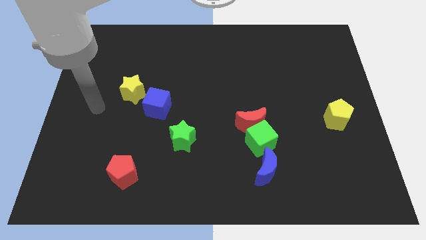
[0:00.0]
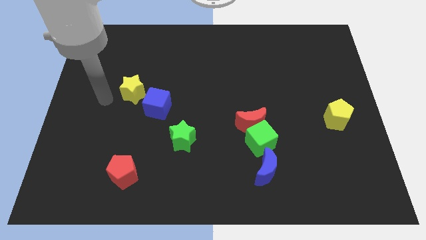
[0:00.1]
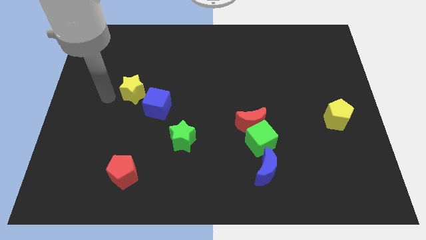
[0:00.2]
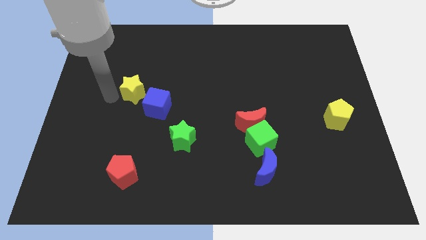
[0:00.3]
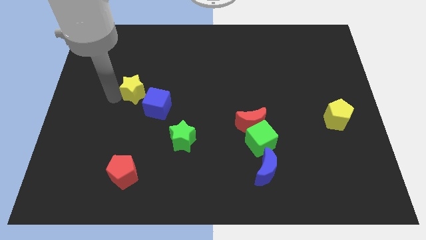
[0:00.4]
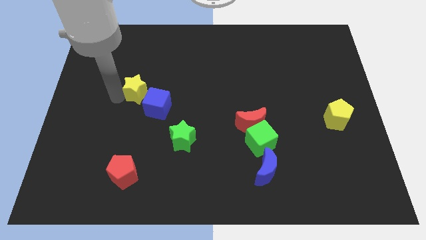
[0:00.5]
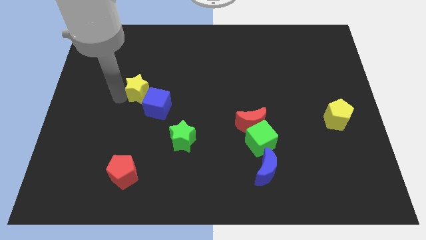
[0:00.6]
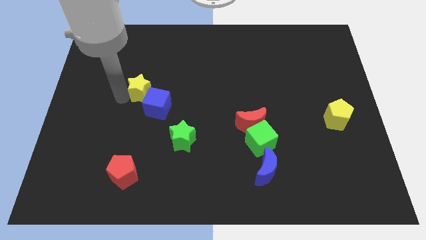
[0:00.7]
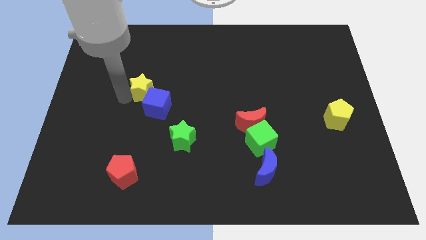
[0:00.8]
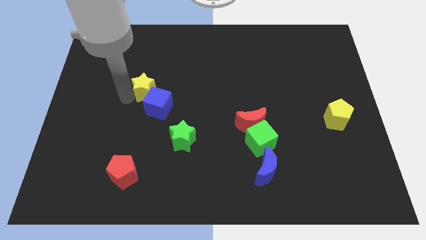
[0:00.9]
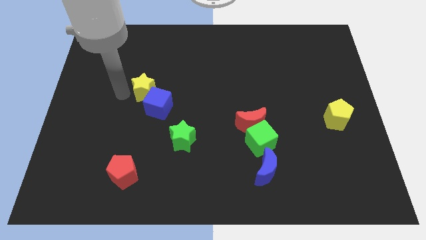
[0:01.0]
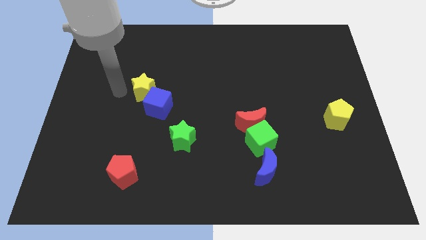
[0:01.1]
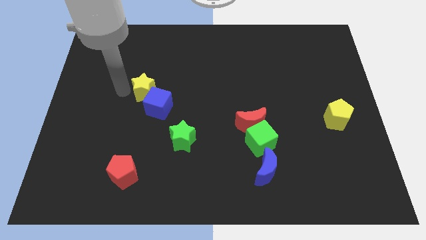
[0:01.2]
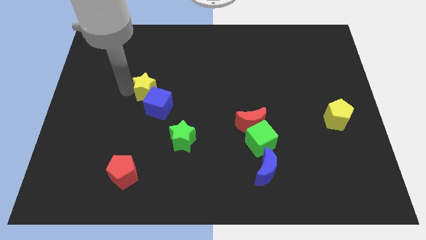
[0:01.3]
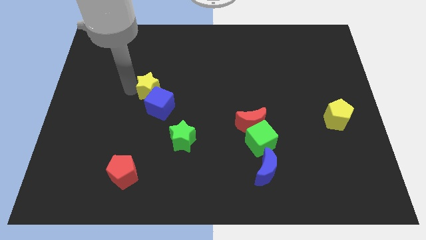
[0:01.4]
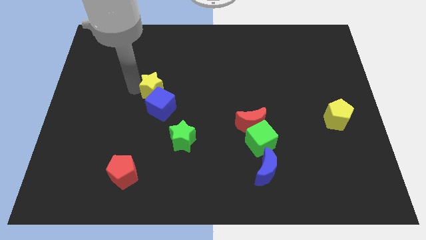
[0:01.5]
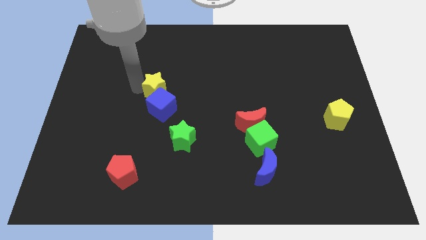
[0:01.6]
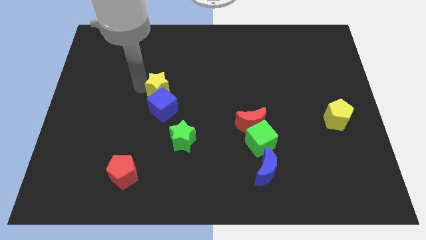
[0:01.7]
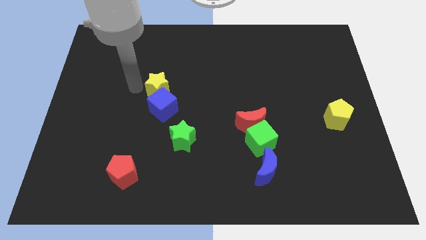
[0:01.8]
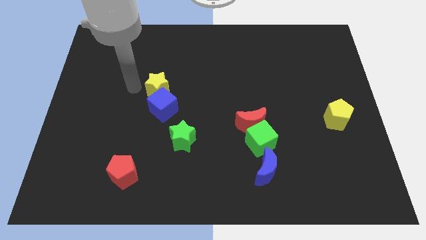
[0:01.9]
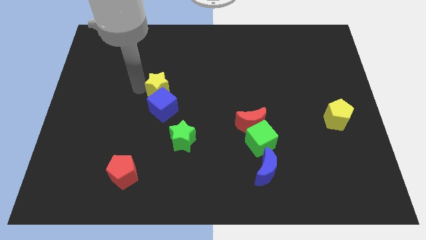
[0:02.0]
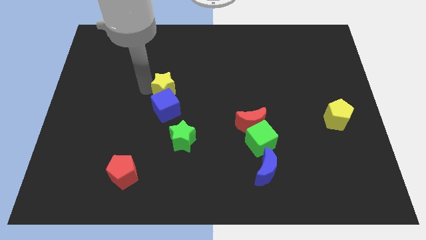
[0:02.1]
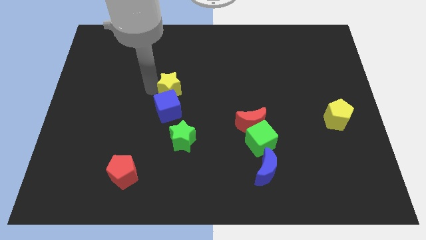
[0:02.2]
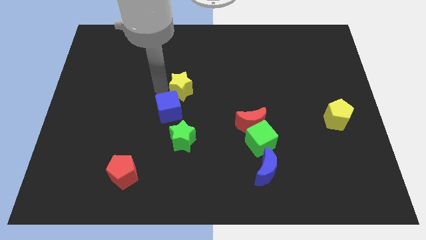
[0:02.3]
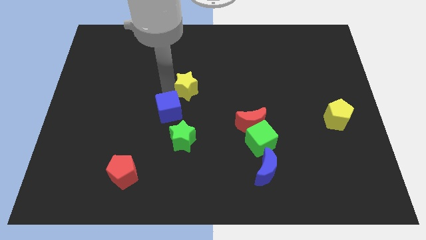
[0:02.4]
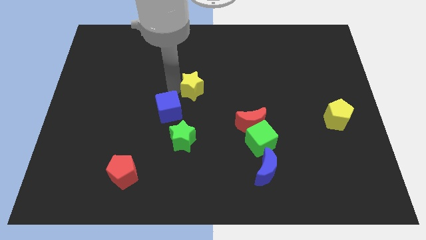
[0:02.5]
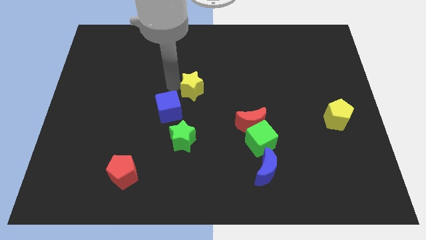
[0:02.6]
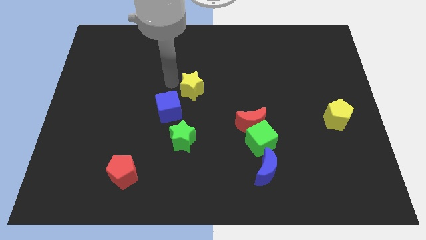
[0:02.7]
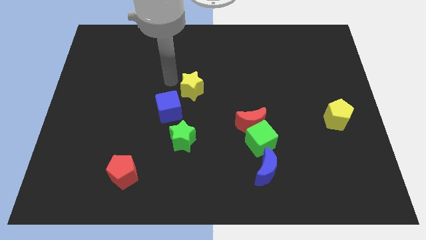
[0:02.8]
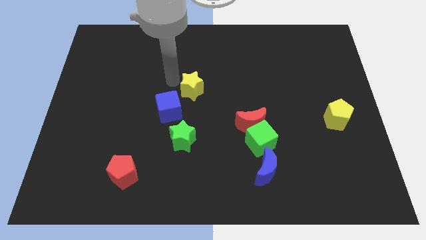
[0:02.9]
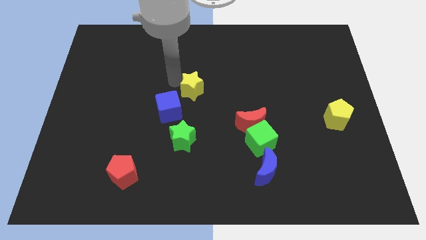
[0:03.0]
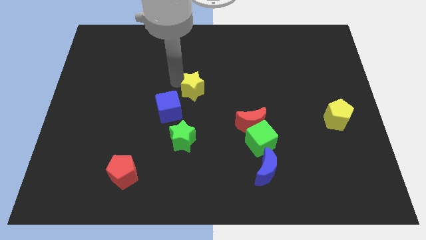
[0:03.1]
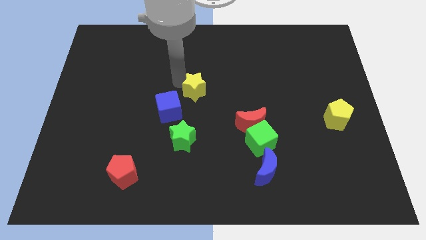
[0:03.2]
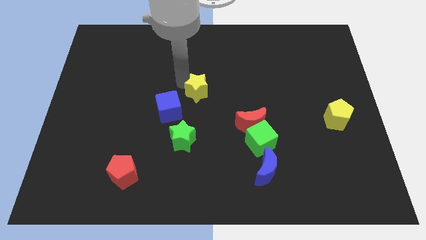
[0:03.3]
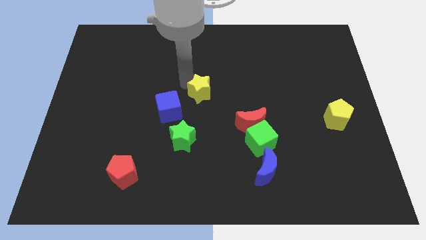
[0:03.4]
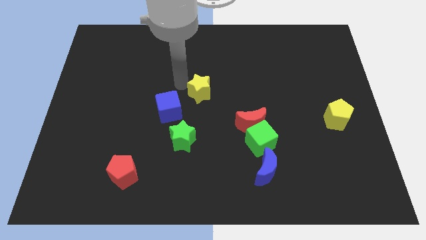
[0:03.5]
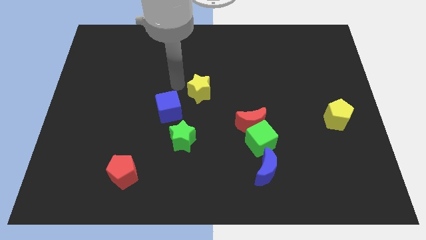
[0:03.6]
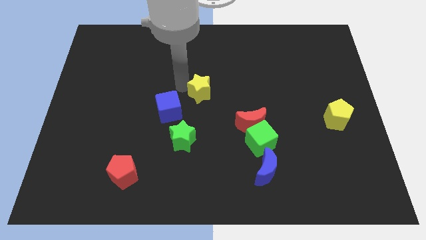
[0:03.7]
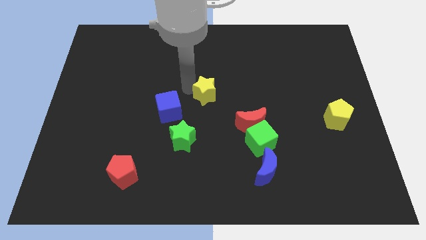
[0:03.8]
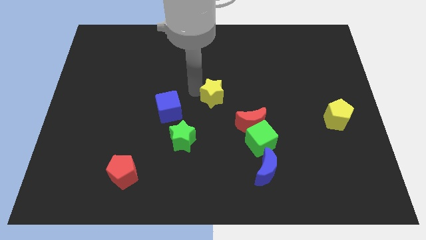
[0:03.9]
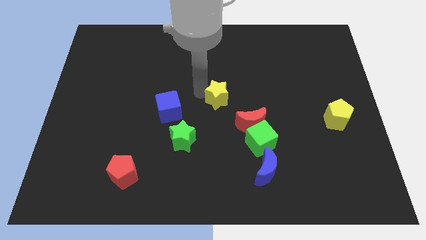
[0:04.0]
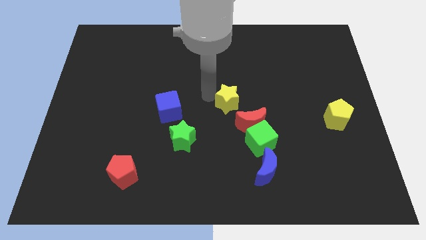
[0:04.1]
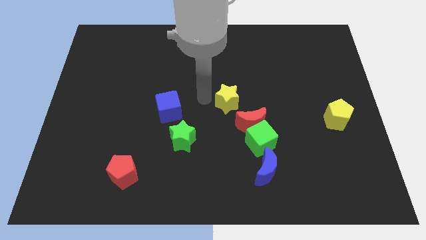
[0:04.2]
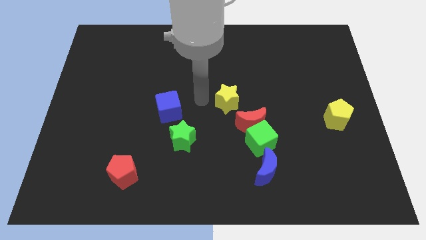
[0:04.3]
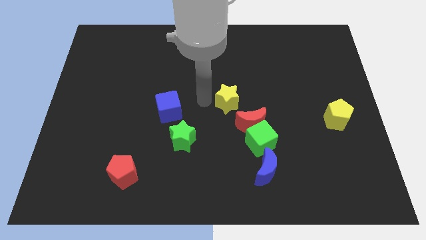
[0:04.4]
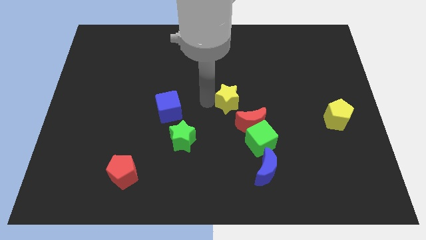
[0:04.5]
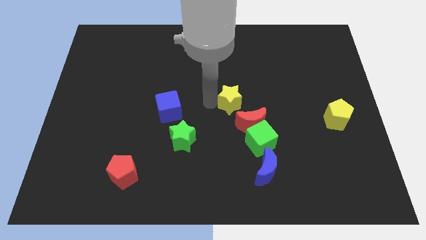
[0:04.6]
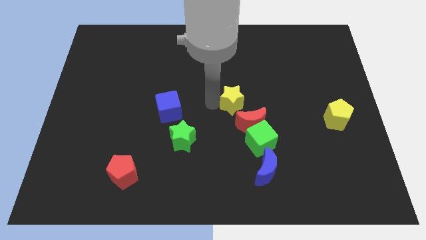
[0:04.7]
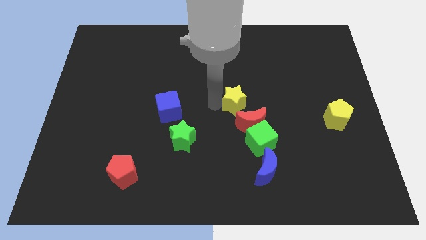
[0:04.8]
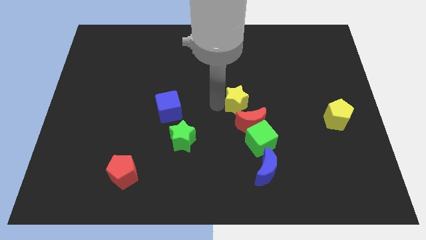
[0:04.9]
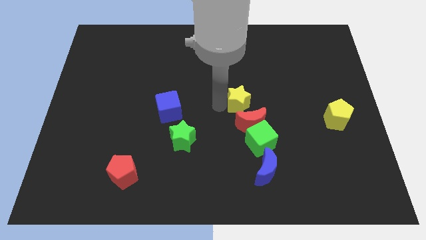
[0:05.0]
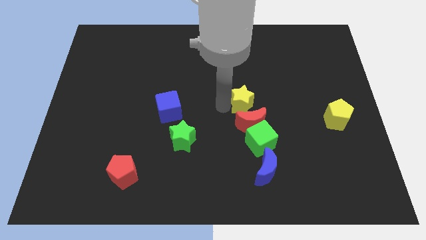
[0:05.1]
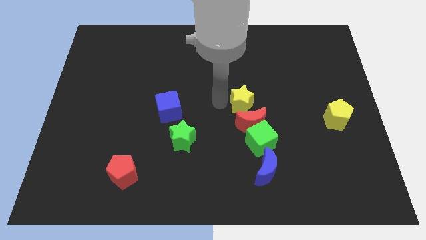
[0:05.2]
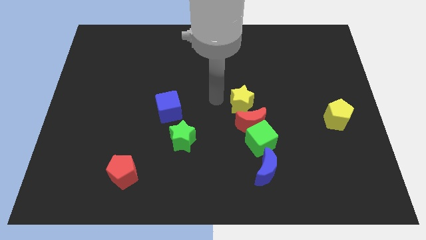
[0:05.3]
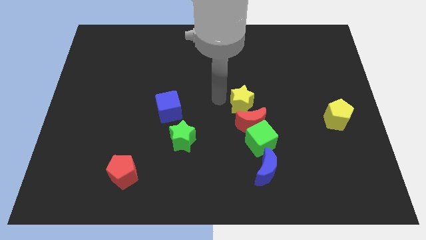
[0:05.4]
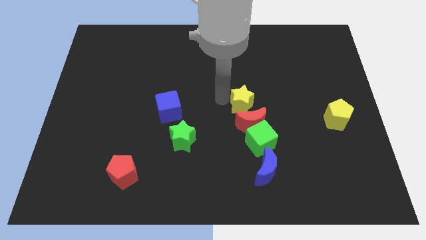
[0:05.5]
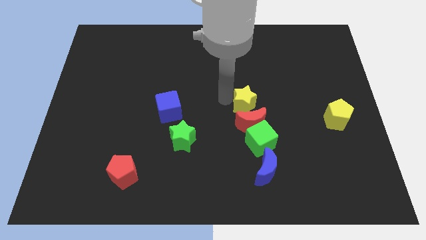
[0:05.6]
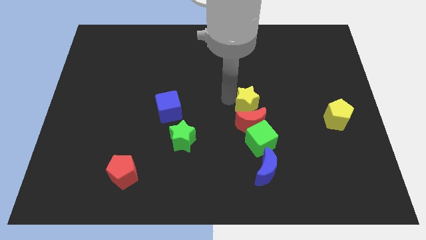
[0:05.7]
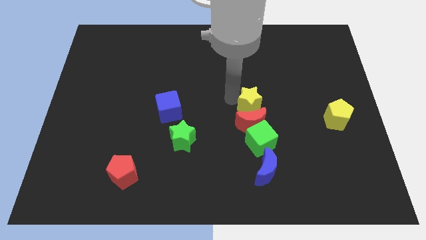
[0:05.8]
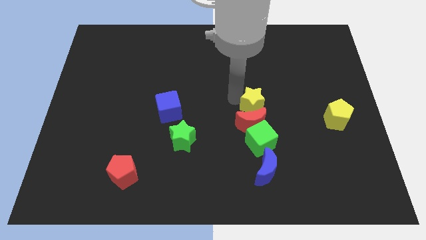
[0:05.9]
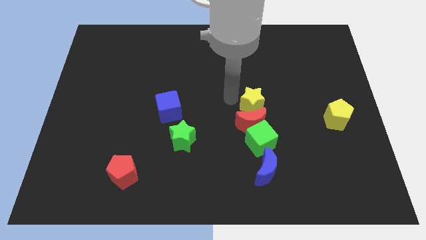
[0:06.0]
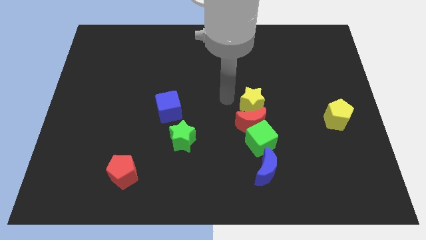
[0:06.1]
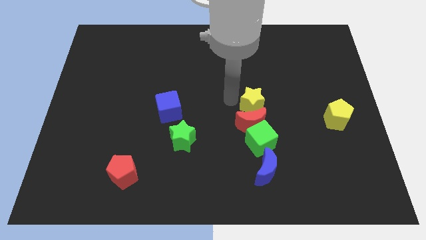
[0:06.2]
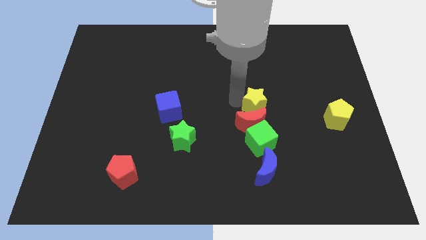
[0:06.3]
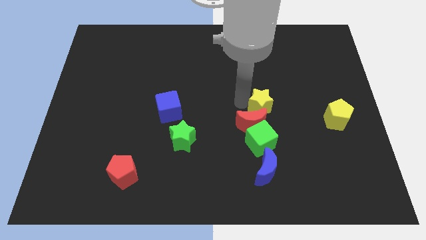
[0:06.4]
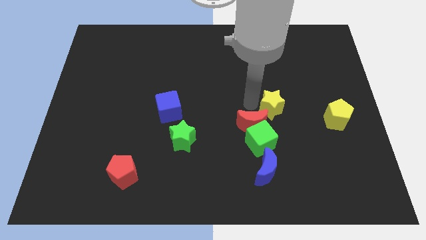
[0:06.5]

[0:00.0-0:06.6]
move the yellow star to the left side of the yellow pentagon
